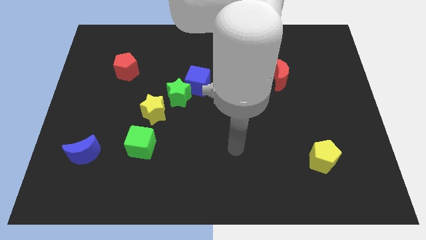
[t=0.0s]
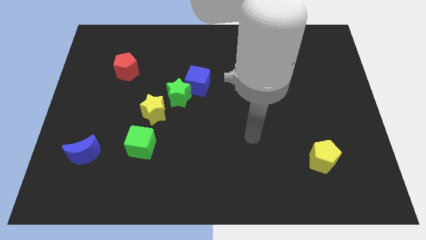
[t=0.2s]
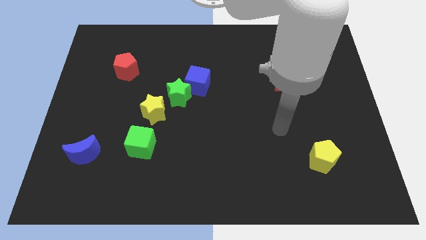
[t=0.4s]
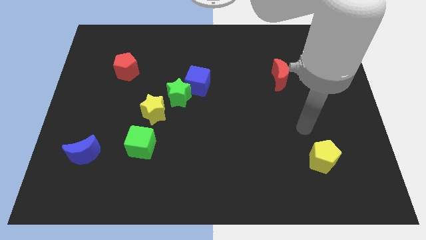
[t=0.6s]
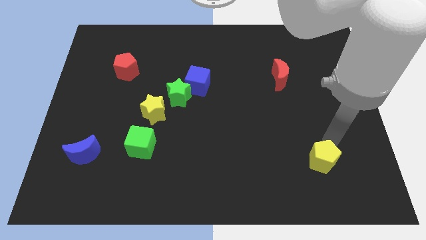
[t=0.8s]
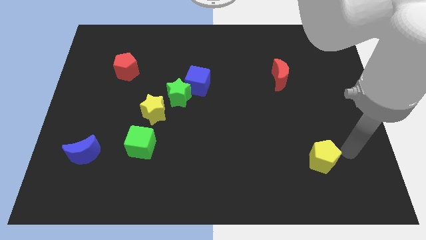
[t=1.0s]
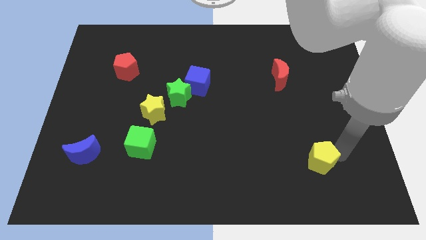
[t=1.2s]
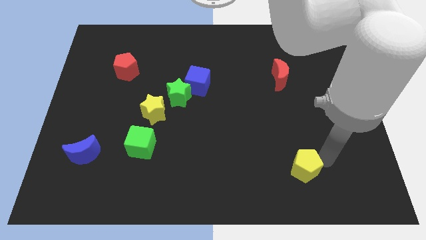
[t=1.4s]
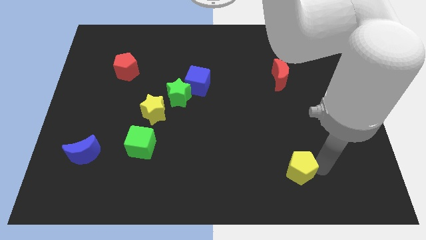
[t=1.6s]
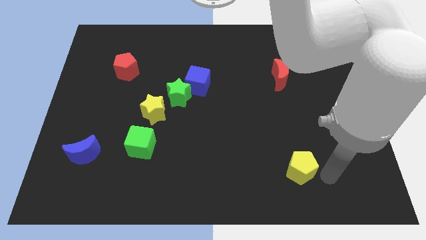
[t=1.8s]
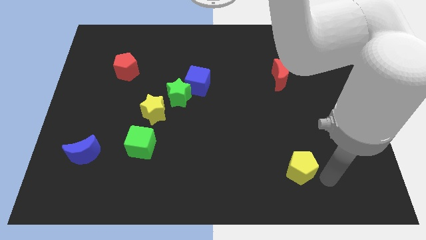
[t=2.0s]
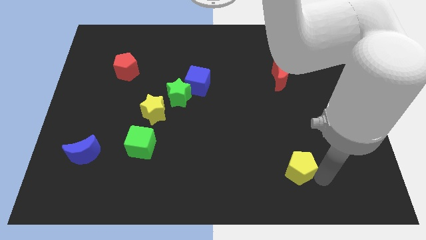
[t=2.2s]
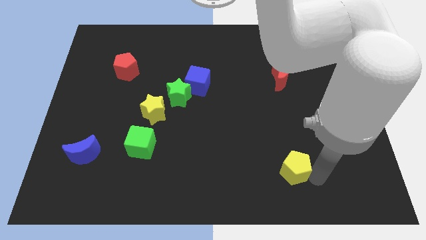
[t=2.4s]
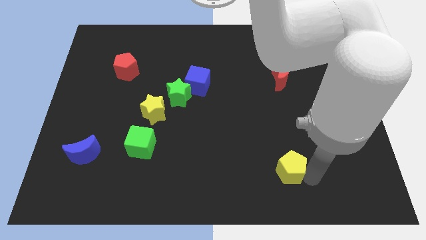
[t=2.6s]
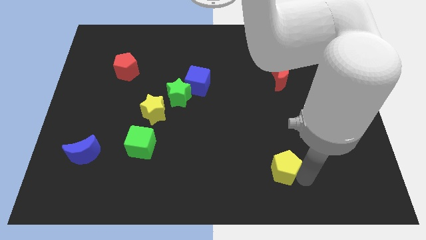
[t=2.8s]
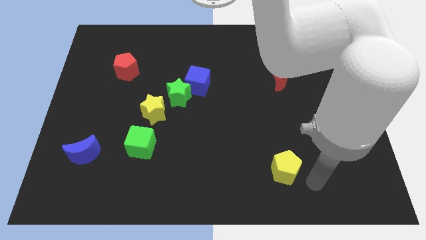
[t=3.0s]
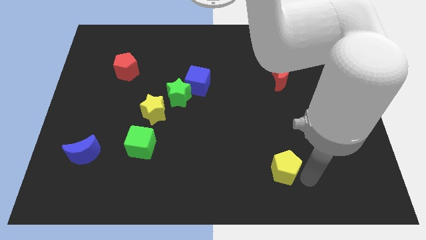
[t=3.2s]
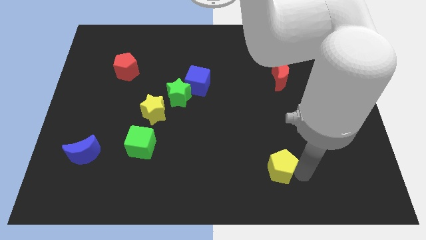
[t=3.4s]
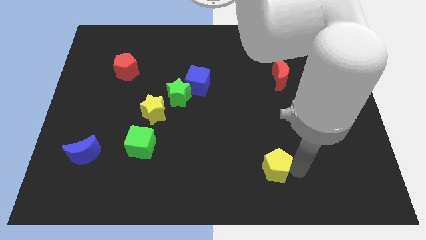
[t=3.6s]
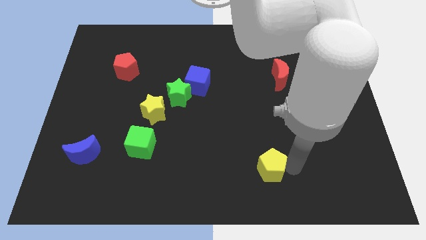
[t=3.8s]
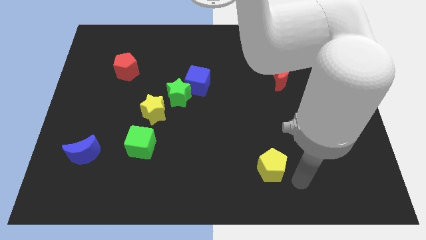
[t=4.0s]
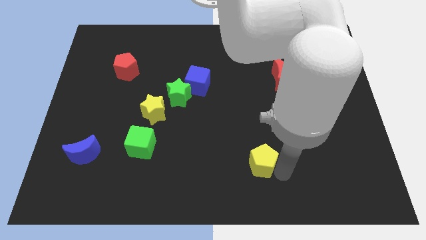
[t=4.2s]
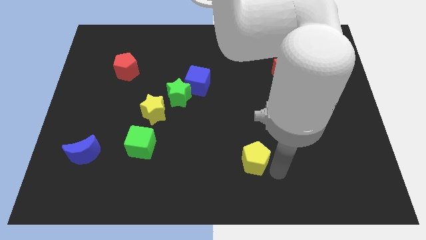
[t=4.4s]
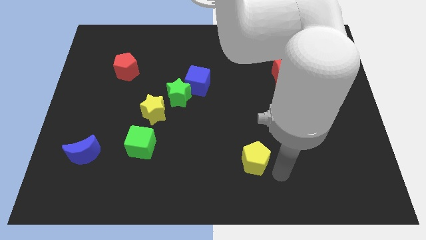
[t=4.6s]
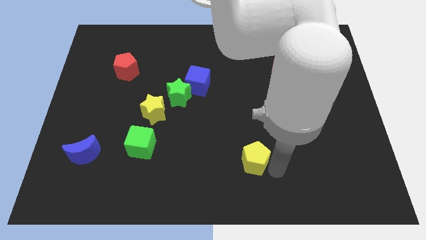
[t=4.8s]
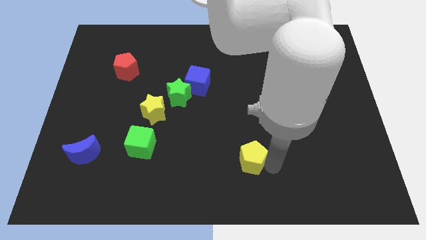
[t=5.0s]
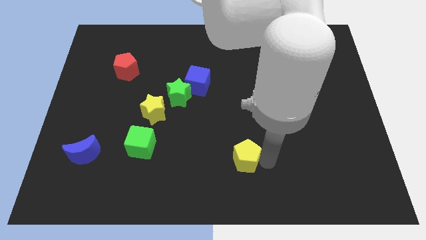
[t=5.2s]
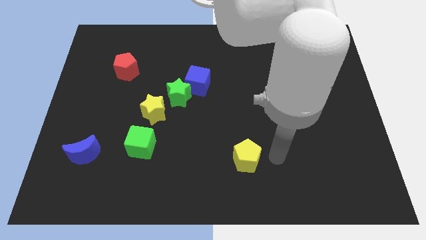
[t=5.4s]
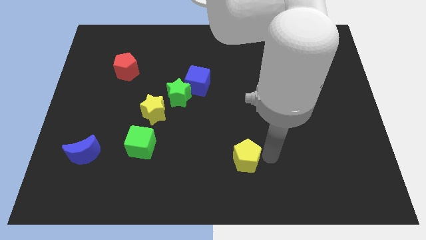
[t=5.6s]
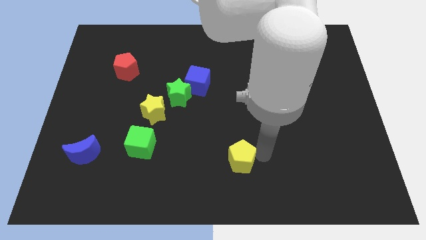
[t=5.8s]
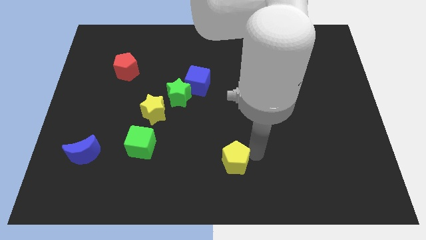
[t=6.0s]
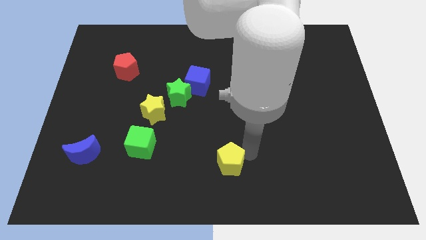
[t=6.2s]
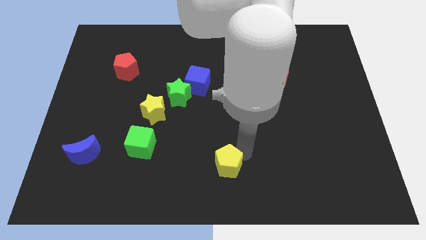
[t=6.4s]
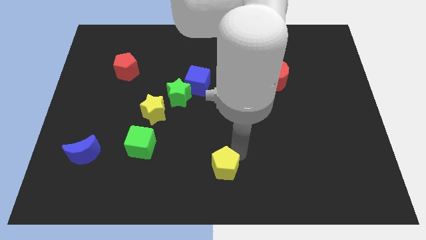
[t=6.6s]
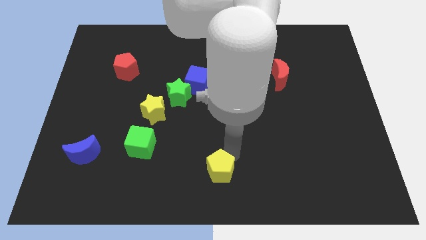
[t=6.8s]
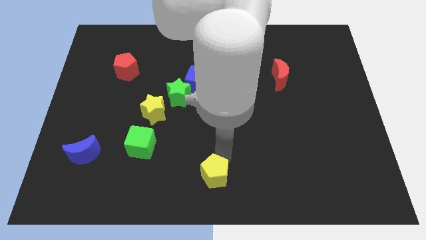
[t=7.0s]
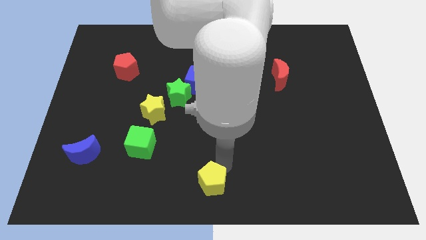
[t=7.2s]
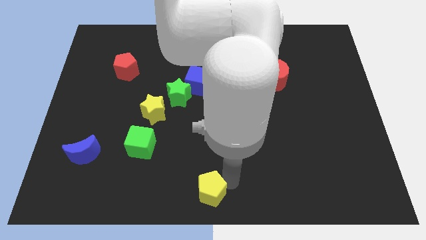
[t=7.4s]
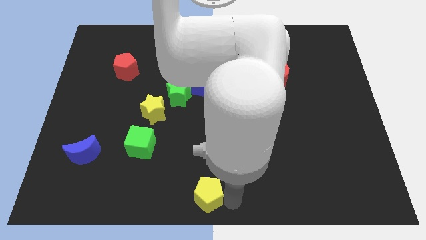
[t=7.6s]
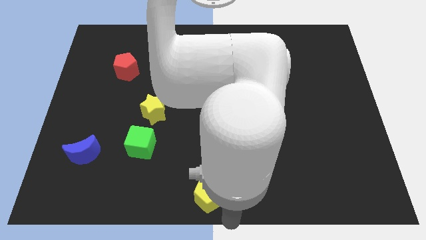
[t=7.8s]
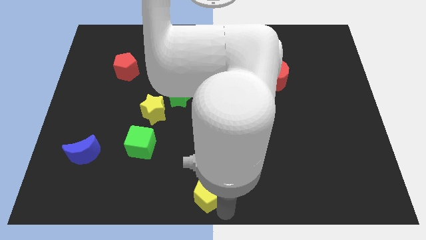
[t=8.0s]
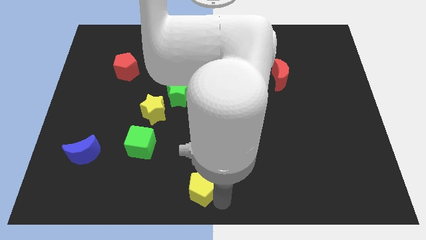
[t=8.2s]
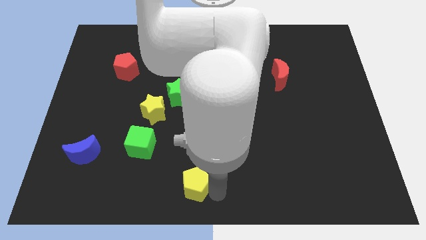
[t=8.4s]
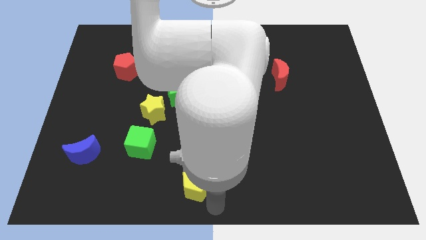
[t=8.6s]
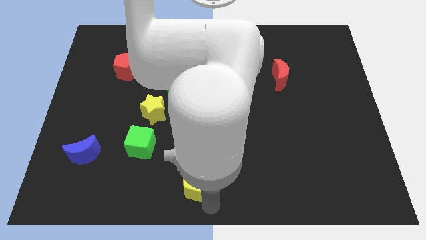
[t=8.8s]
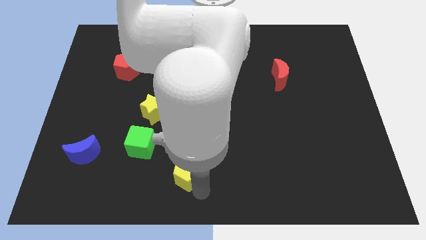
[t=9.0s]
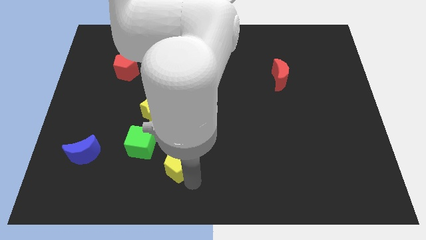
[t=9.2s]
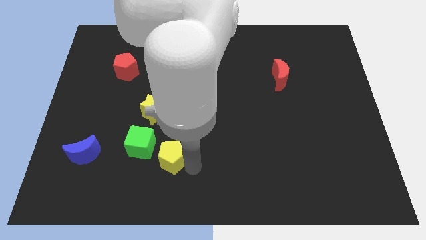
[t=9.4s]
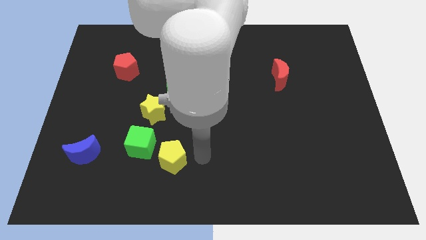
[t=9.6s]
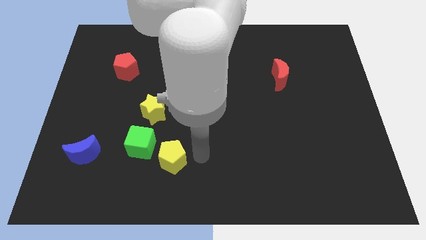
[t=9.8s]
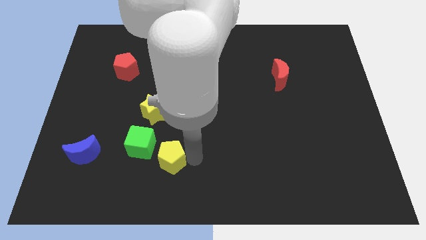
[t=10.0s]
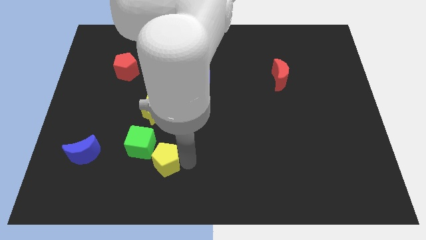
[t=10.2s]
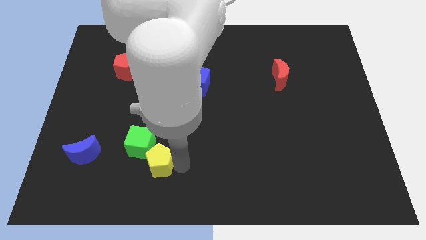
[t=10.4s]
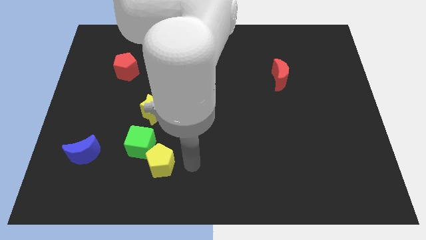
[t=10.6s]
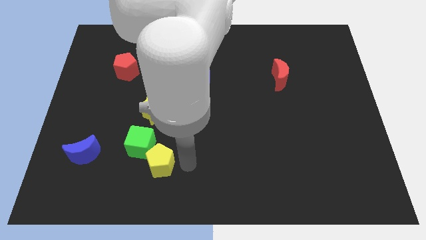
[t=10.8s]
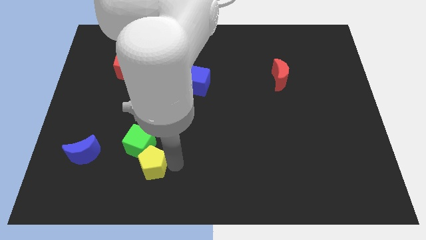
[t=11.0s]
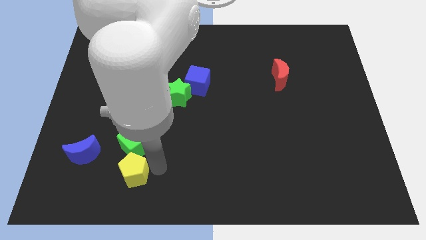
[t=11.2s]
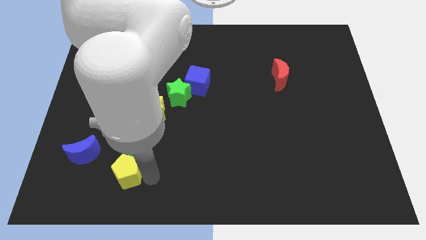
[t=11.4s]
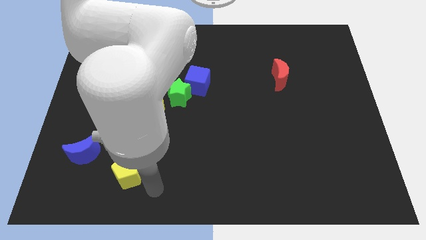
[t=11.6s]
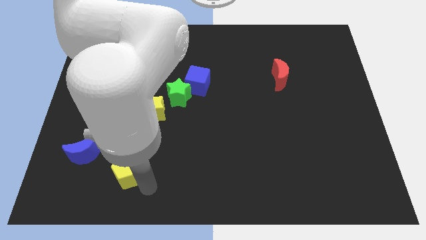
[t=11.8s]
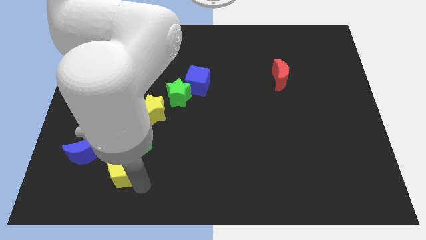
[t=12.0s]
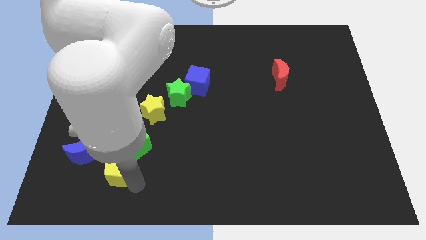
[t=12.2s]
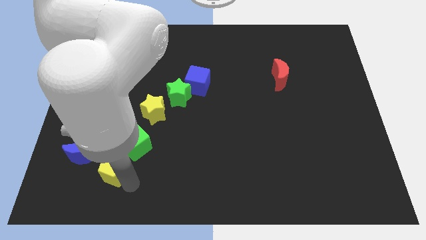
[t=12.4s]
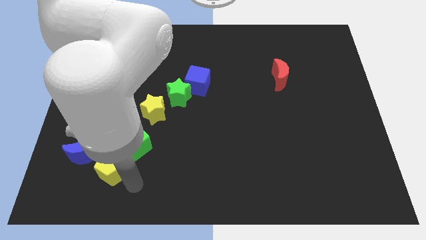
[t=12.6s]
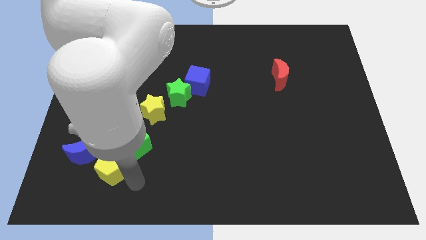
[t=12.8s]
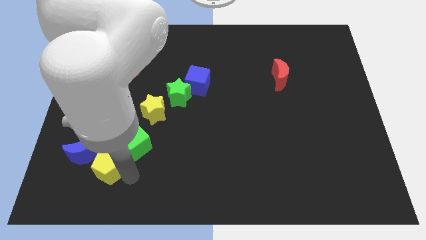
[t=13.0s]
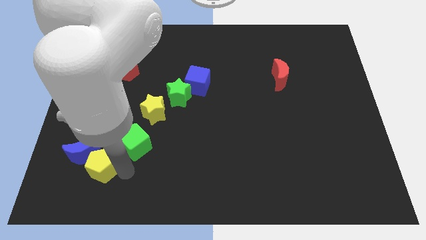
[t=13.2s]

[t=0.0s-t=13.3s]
move the yellow pentagon close to the blue moon
